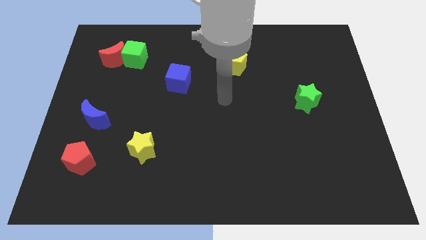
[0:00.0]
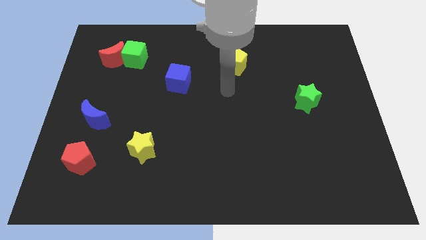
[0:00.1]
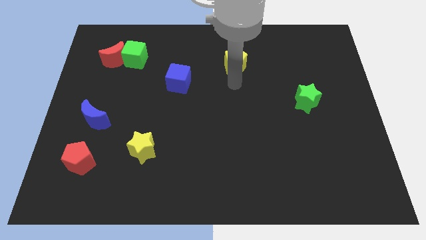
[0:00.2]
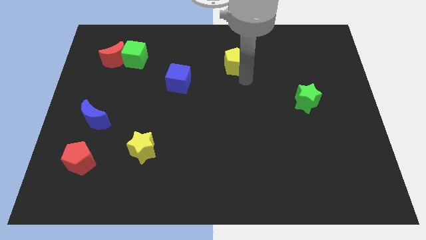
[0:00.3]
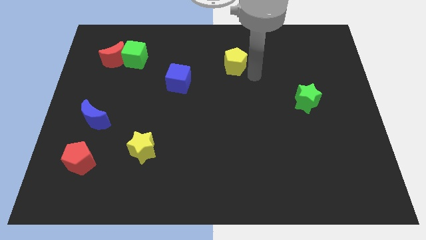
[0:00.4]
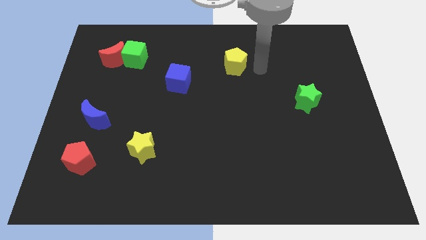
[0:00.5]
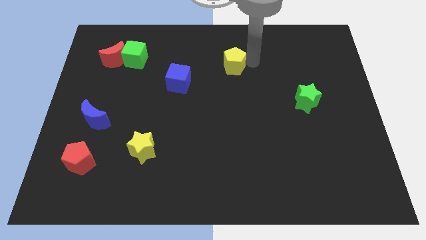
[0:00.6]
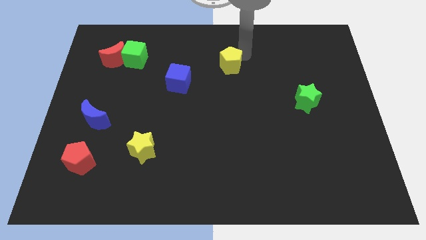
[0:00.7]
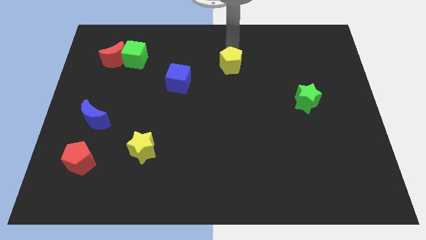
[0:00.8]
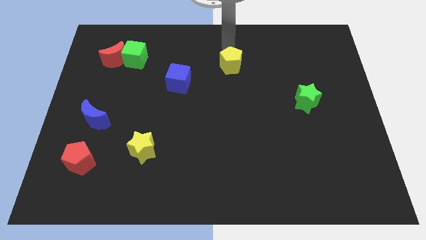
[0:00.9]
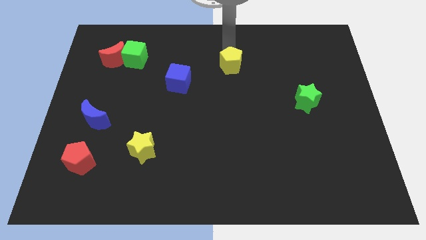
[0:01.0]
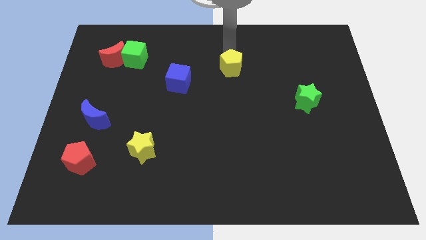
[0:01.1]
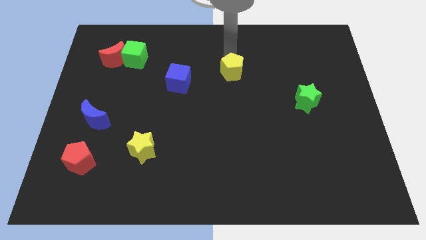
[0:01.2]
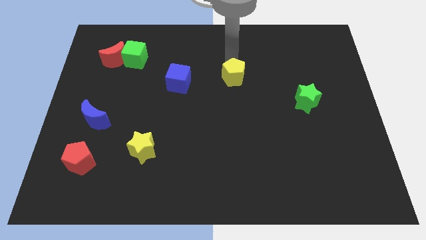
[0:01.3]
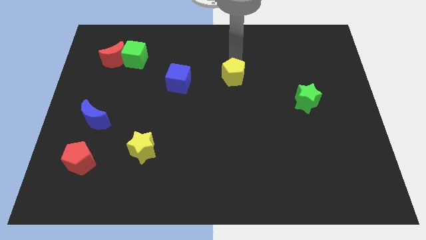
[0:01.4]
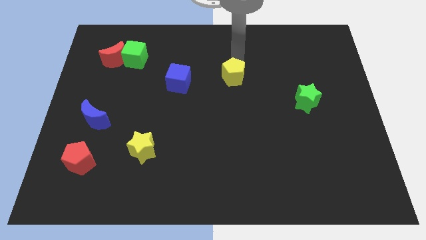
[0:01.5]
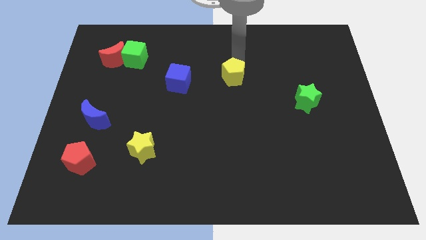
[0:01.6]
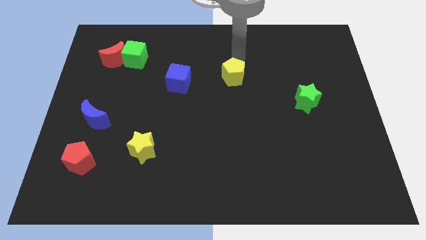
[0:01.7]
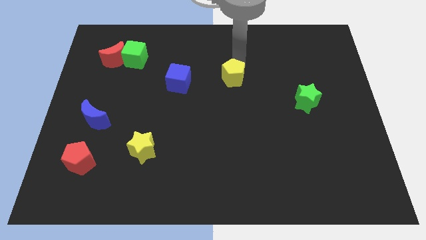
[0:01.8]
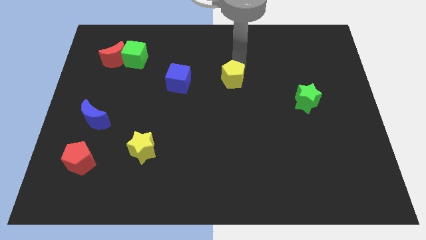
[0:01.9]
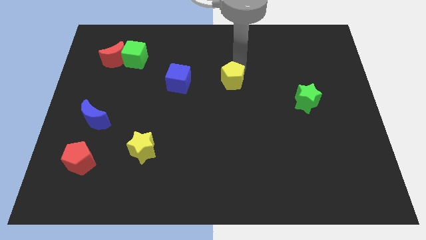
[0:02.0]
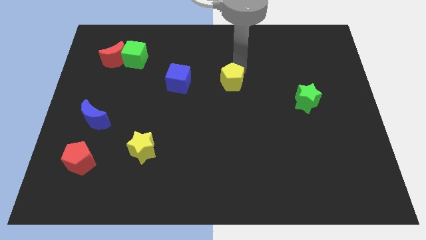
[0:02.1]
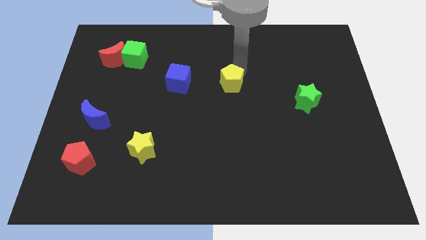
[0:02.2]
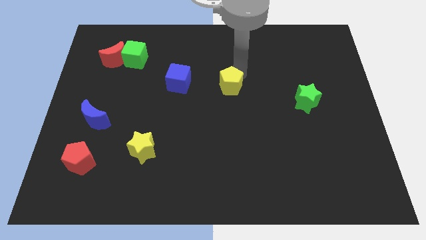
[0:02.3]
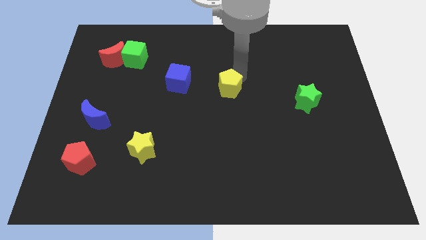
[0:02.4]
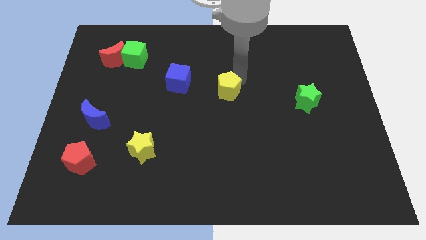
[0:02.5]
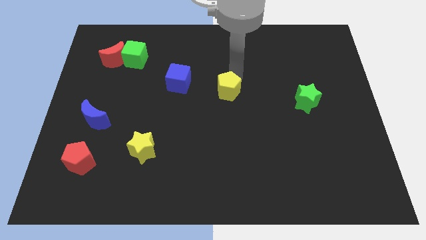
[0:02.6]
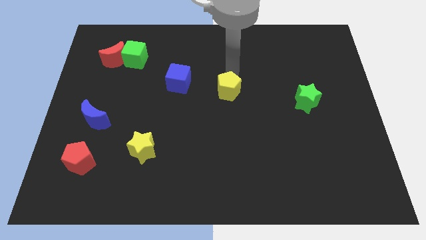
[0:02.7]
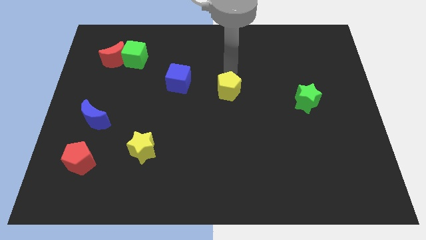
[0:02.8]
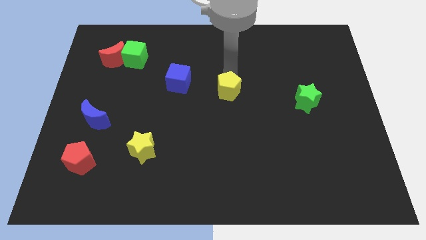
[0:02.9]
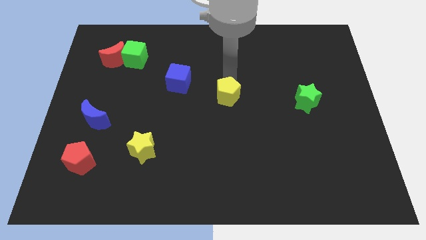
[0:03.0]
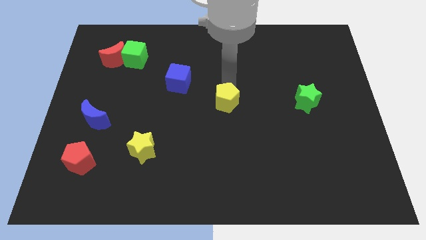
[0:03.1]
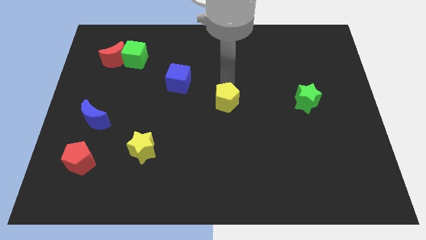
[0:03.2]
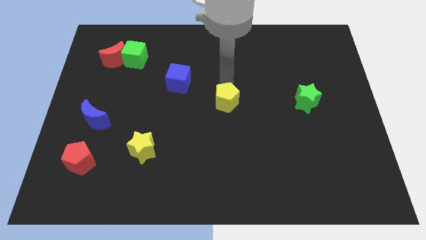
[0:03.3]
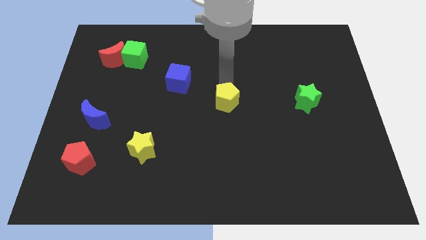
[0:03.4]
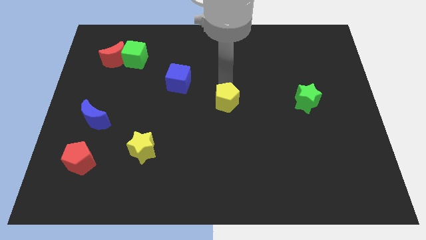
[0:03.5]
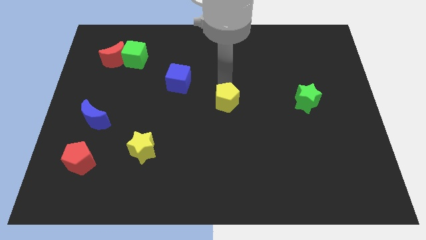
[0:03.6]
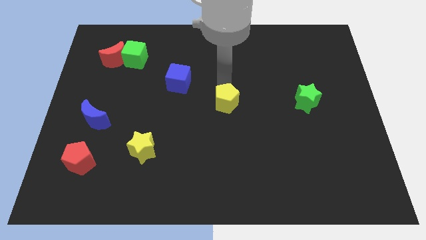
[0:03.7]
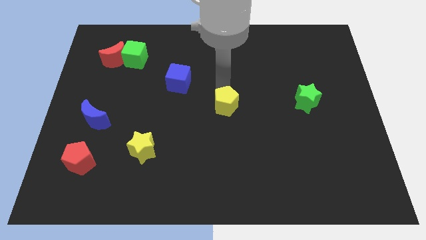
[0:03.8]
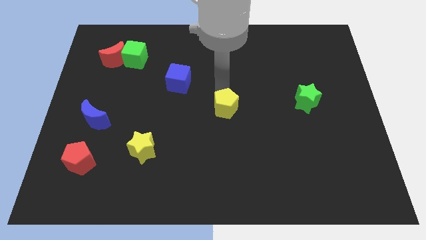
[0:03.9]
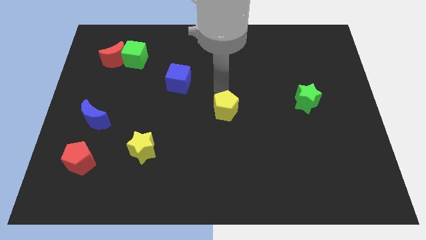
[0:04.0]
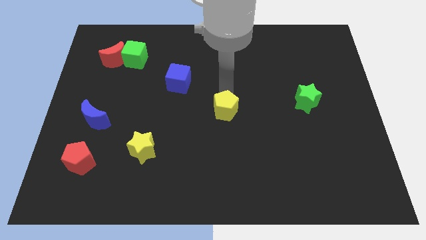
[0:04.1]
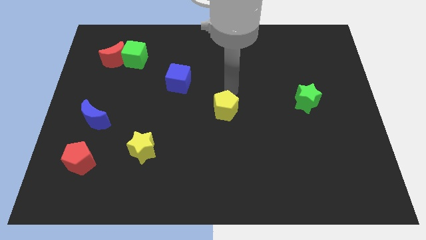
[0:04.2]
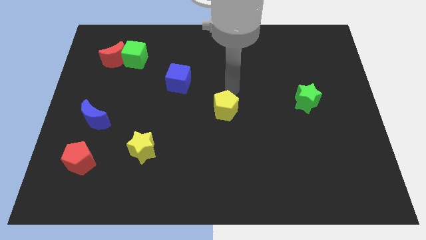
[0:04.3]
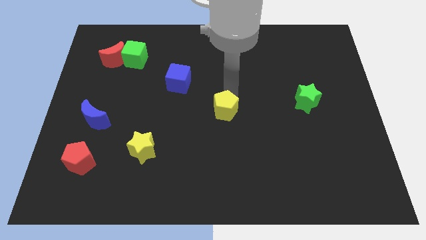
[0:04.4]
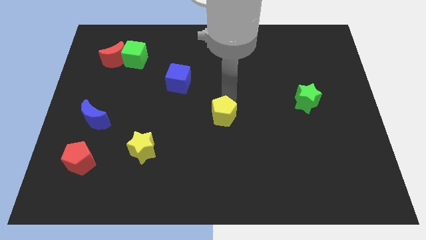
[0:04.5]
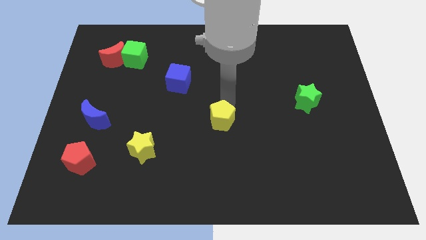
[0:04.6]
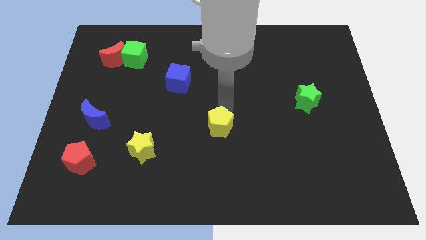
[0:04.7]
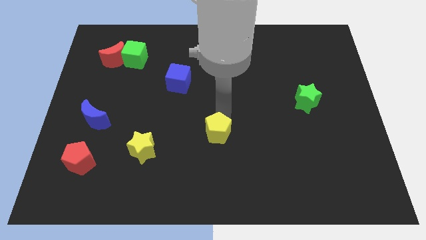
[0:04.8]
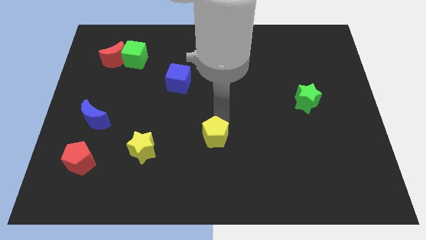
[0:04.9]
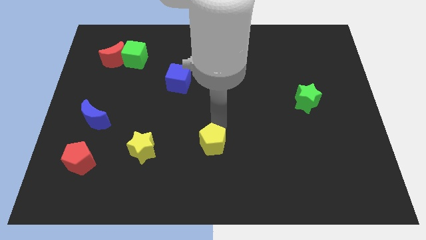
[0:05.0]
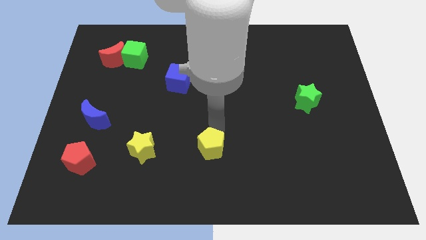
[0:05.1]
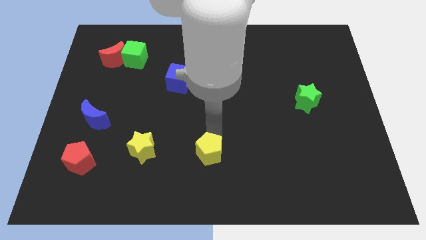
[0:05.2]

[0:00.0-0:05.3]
put the yellow pentagon to the bottom side

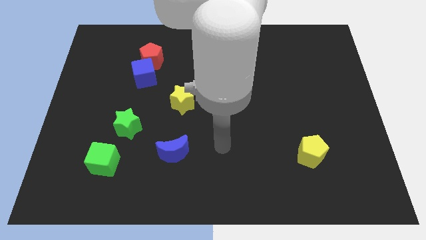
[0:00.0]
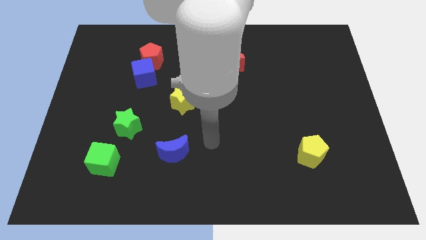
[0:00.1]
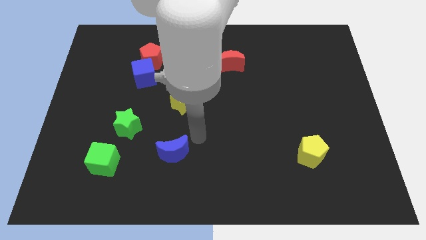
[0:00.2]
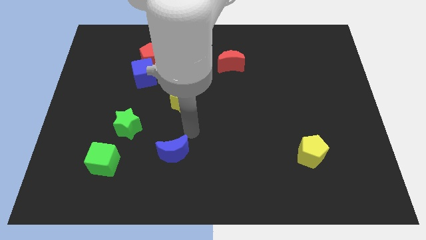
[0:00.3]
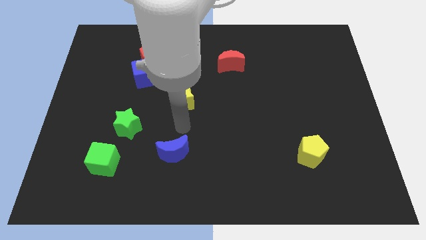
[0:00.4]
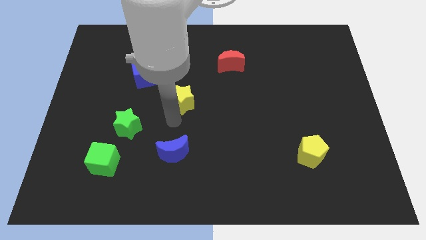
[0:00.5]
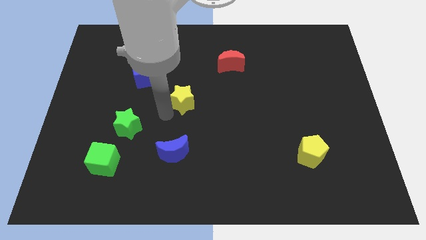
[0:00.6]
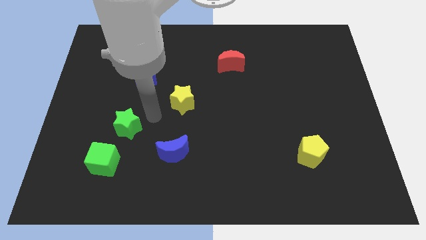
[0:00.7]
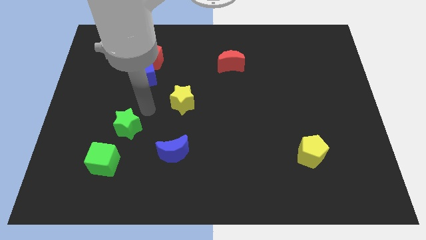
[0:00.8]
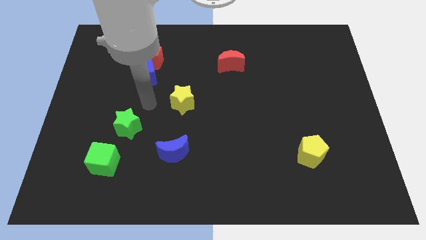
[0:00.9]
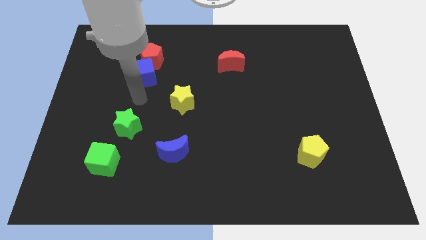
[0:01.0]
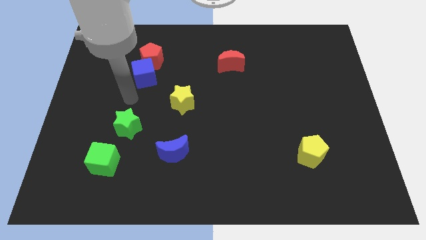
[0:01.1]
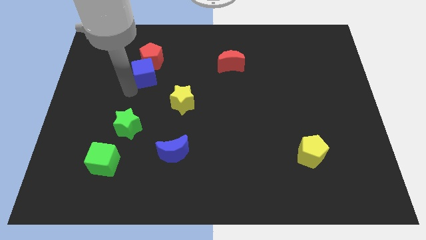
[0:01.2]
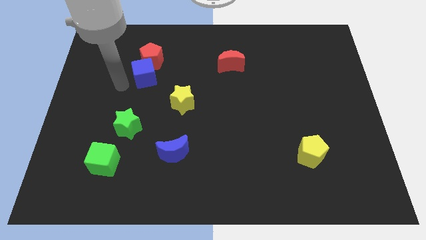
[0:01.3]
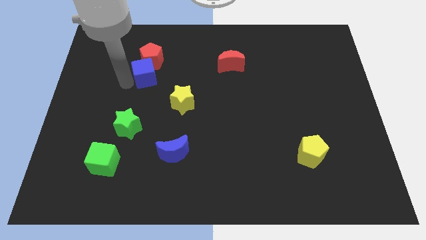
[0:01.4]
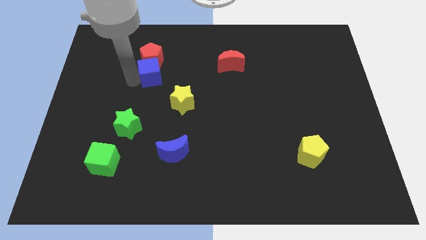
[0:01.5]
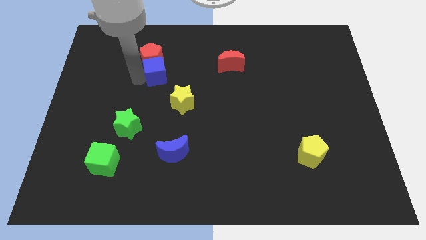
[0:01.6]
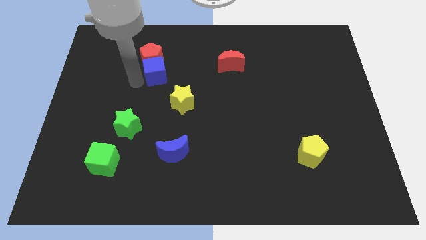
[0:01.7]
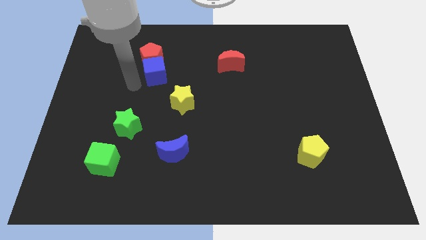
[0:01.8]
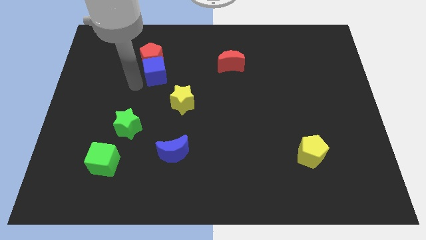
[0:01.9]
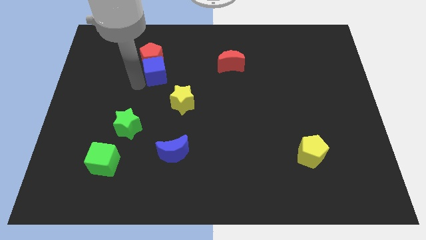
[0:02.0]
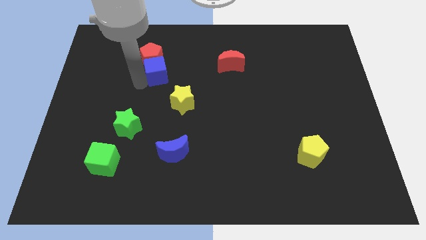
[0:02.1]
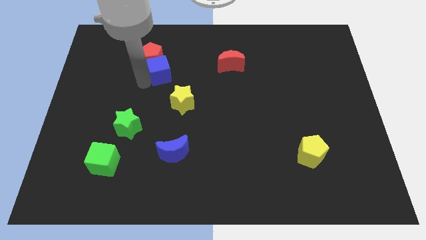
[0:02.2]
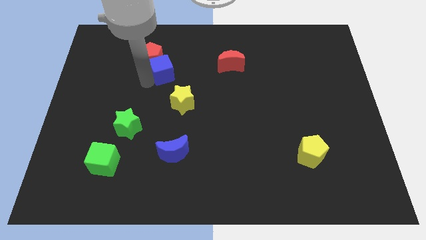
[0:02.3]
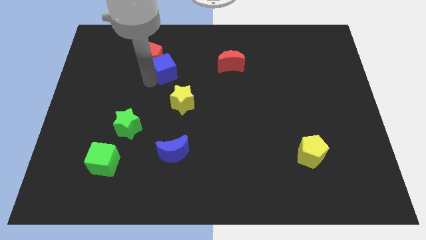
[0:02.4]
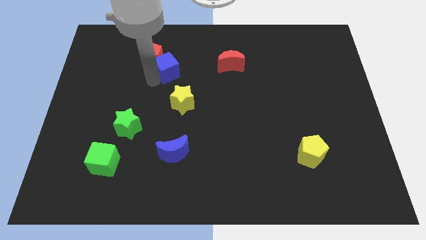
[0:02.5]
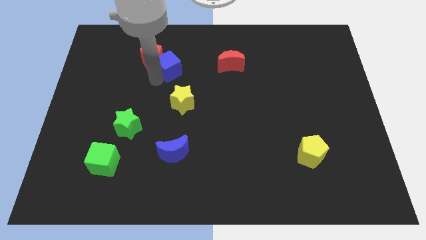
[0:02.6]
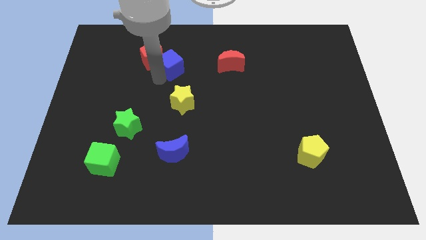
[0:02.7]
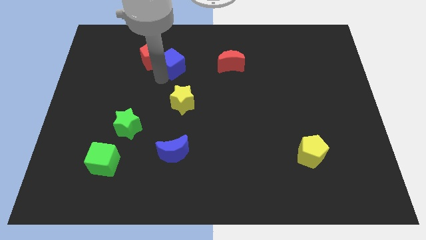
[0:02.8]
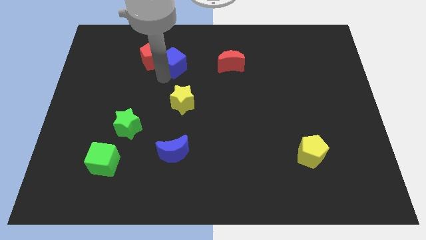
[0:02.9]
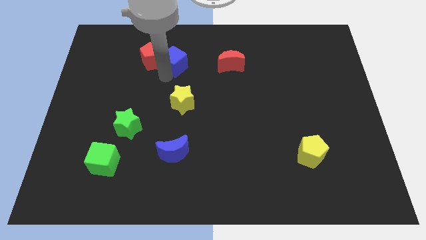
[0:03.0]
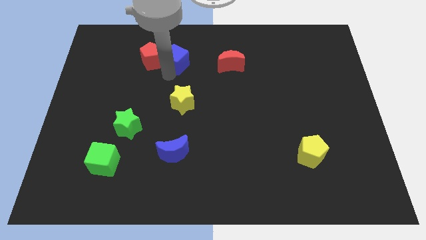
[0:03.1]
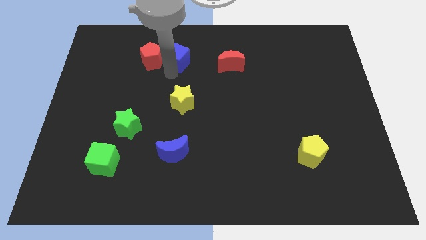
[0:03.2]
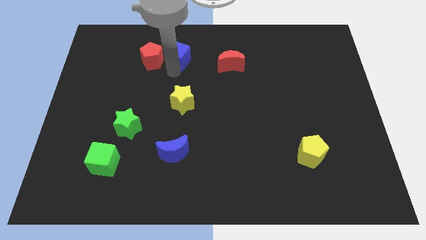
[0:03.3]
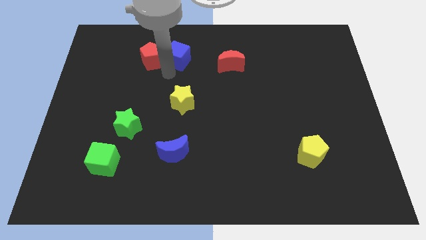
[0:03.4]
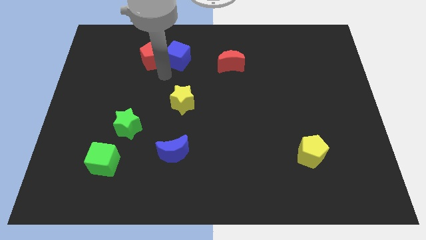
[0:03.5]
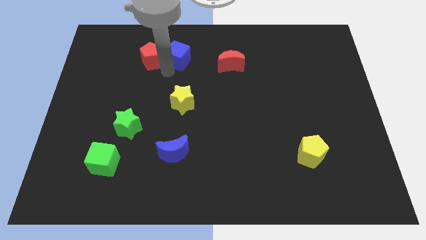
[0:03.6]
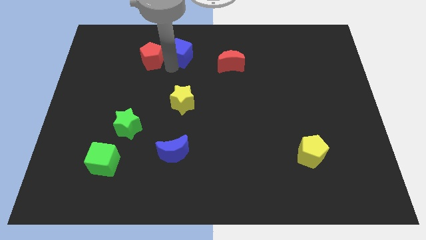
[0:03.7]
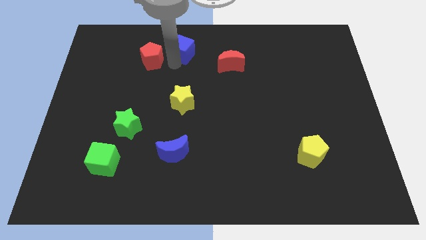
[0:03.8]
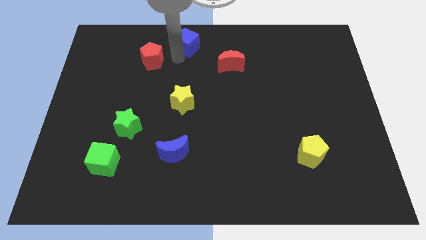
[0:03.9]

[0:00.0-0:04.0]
slide the blue cube to the towards your base
